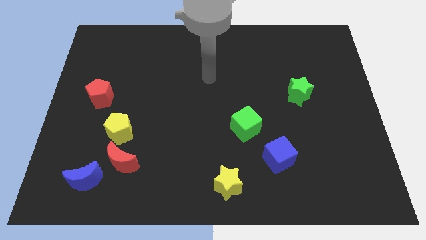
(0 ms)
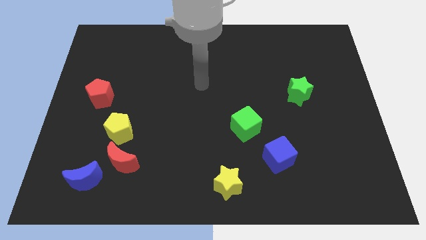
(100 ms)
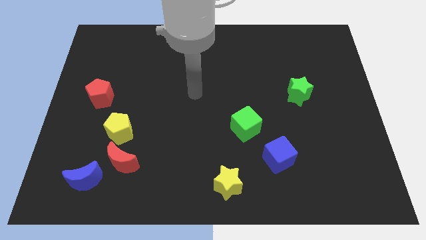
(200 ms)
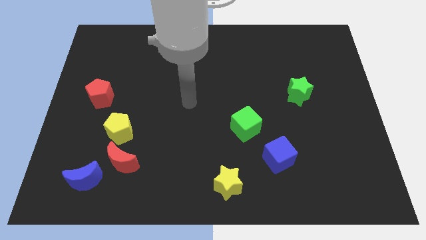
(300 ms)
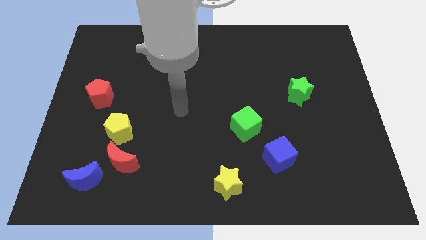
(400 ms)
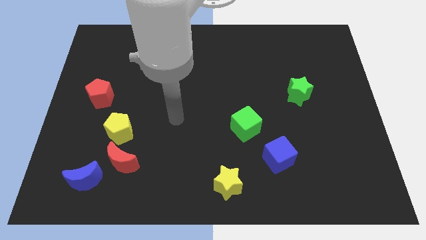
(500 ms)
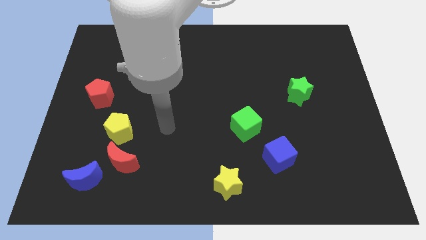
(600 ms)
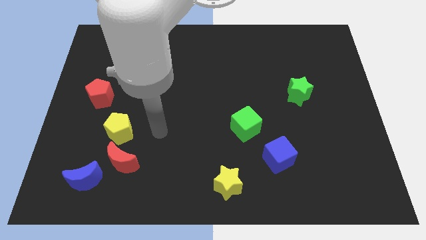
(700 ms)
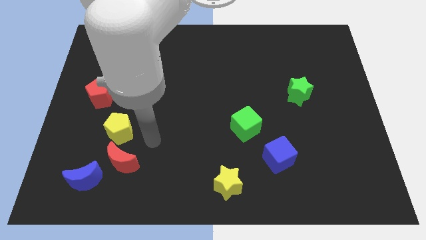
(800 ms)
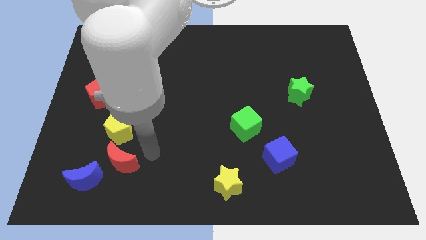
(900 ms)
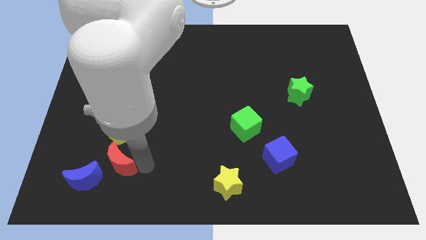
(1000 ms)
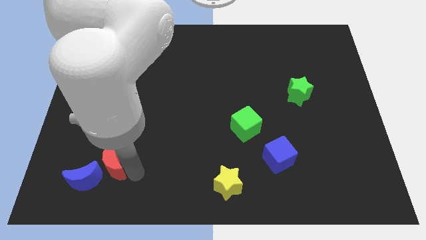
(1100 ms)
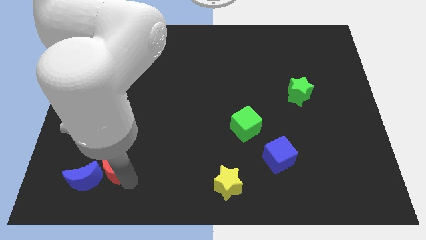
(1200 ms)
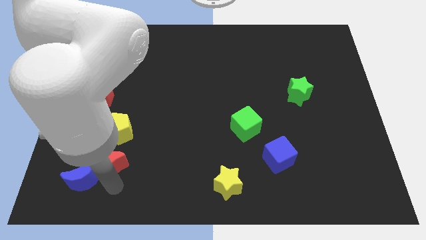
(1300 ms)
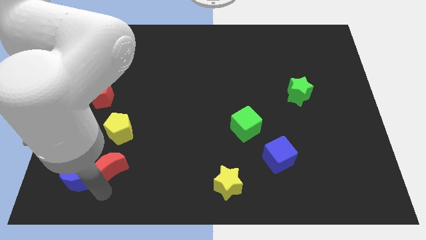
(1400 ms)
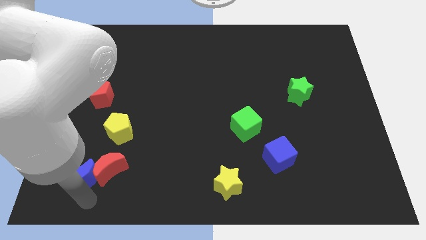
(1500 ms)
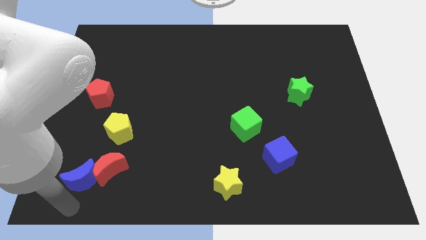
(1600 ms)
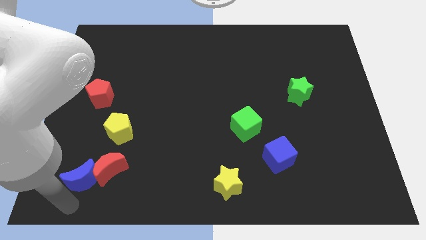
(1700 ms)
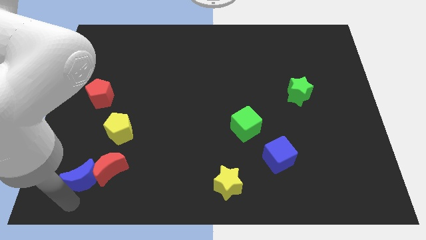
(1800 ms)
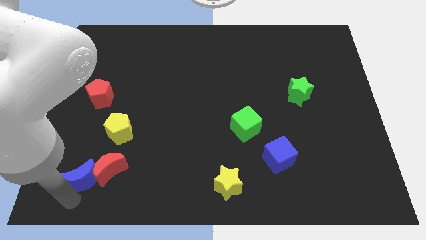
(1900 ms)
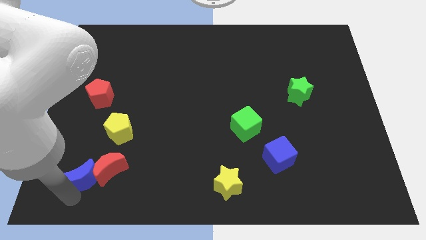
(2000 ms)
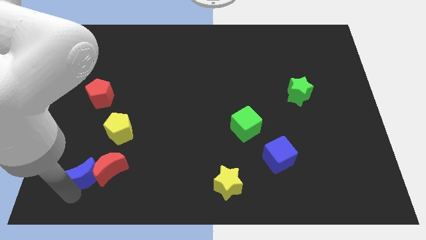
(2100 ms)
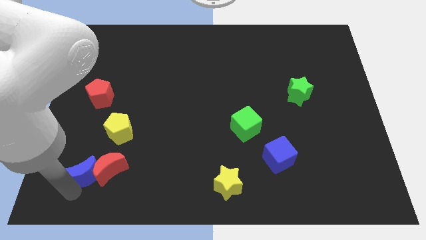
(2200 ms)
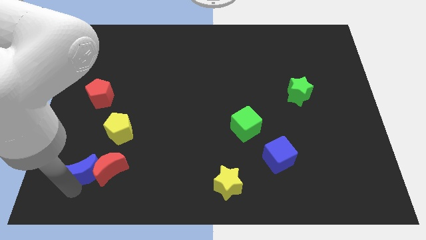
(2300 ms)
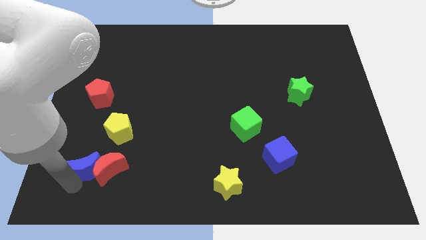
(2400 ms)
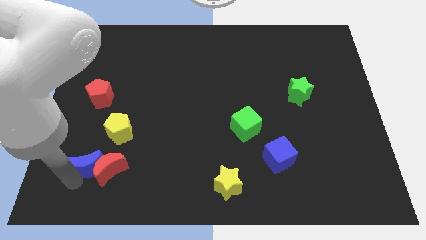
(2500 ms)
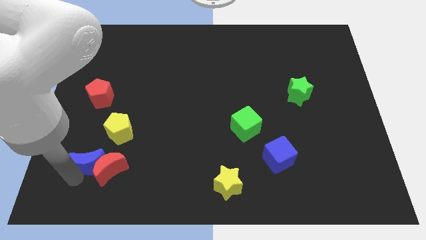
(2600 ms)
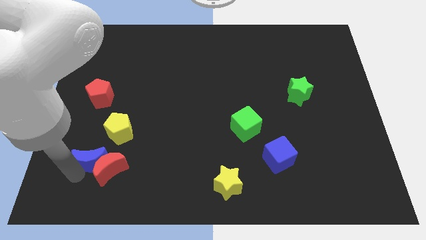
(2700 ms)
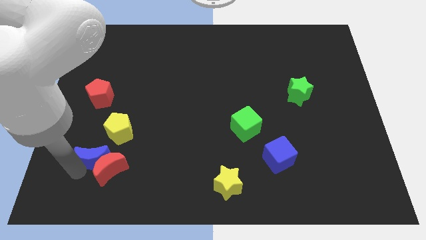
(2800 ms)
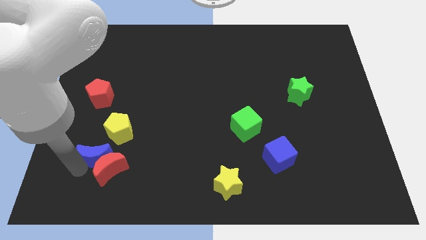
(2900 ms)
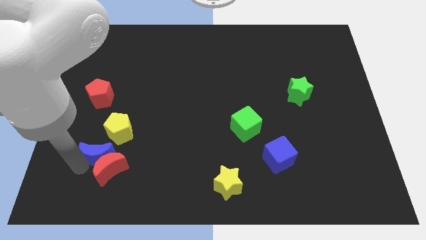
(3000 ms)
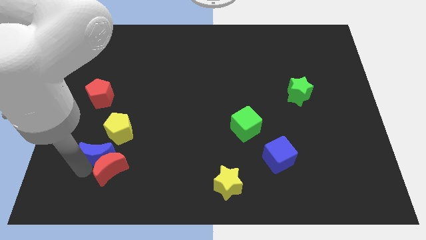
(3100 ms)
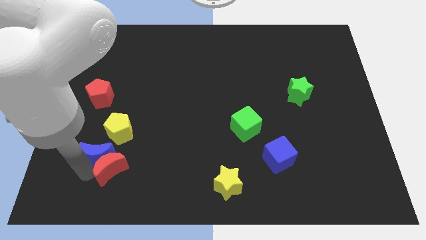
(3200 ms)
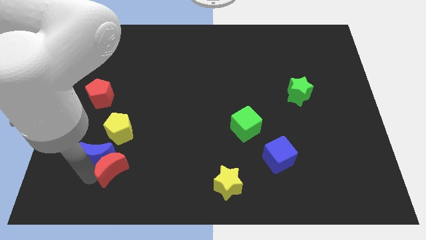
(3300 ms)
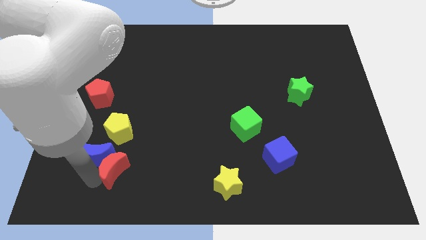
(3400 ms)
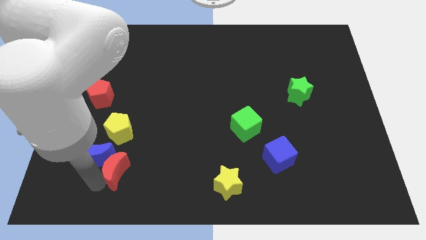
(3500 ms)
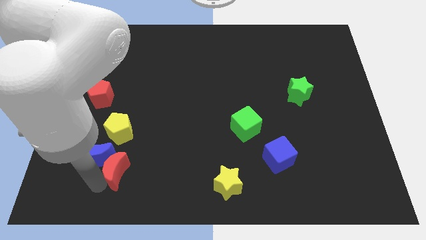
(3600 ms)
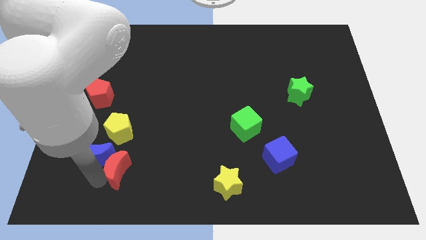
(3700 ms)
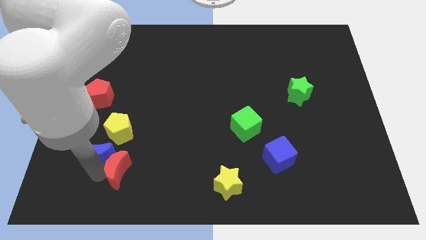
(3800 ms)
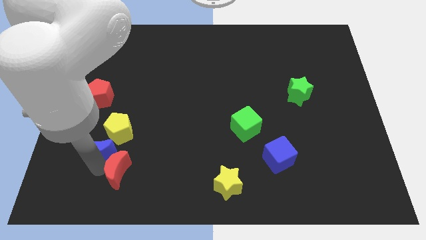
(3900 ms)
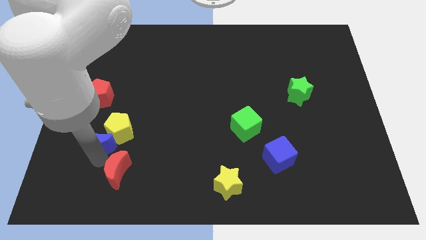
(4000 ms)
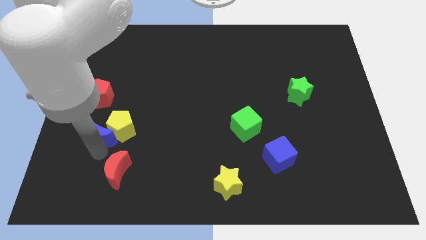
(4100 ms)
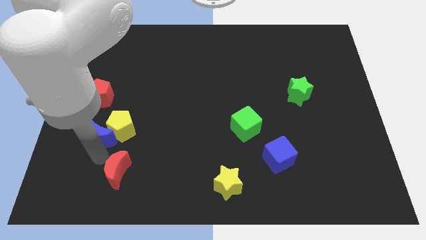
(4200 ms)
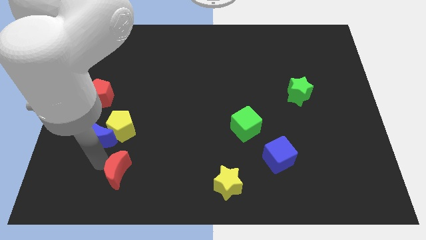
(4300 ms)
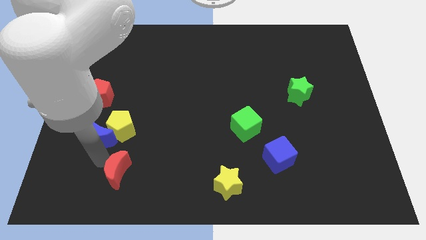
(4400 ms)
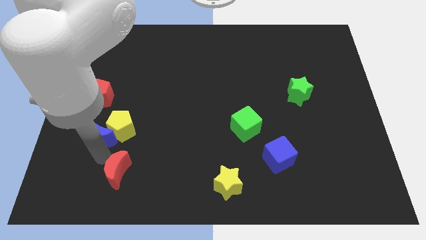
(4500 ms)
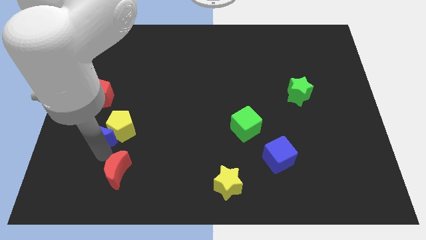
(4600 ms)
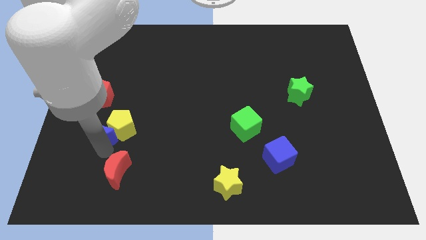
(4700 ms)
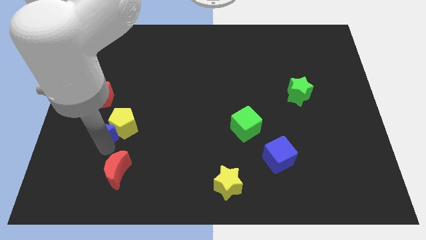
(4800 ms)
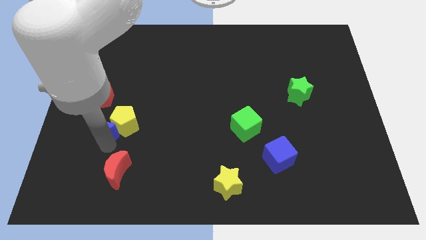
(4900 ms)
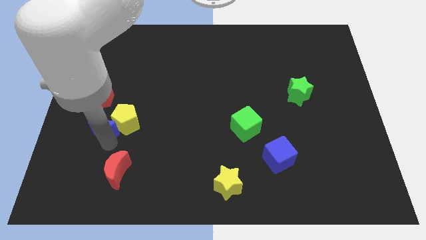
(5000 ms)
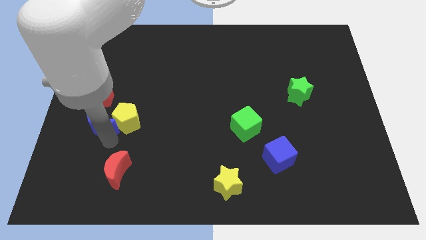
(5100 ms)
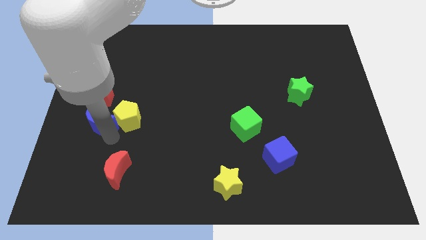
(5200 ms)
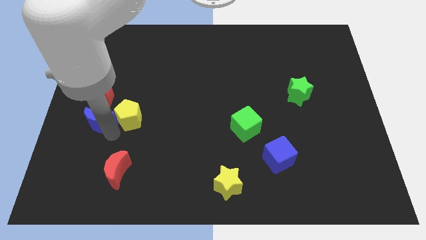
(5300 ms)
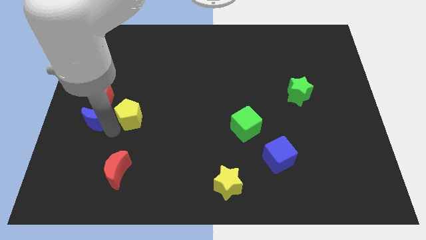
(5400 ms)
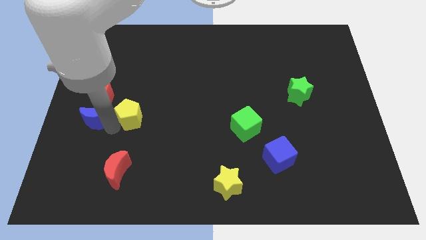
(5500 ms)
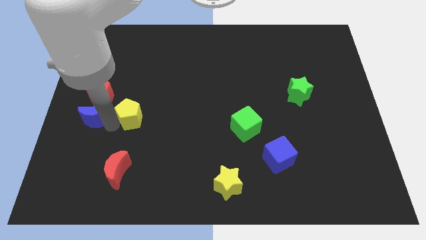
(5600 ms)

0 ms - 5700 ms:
slide the blue moon next to the red pentagon
